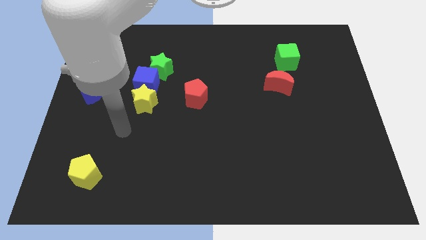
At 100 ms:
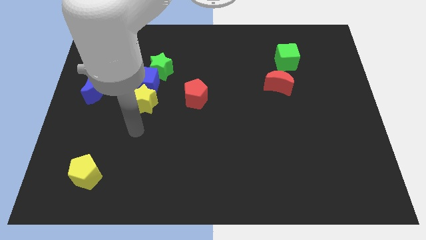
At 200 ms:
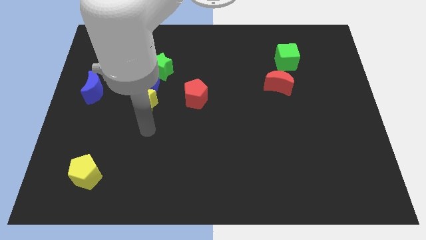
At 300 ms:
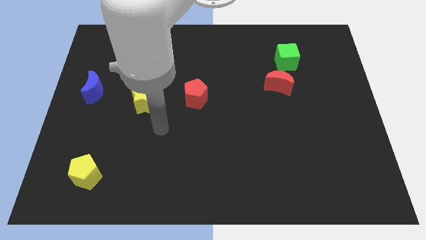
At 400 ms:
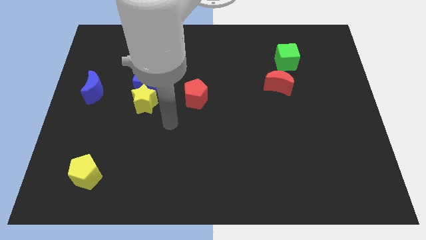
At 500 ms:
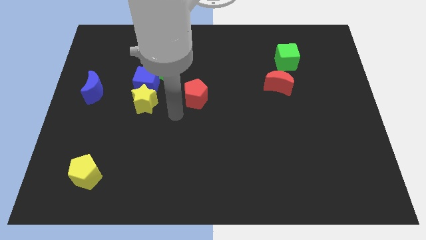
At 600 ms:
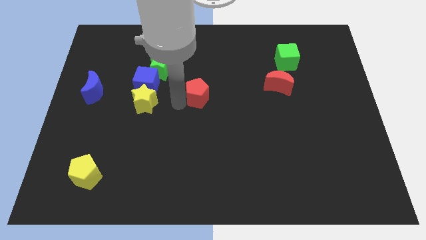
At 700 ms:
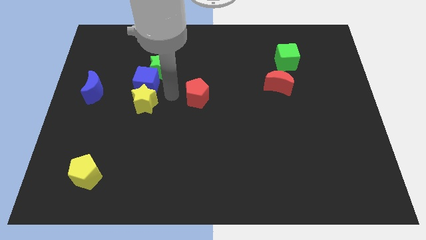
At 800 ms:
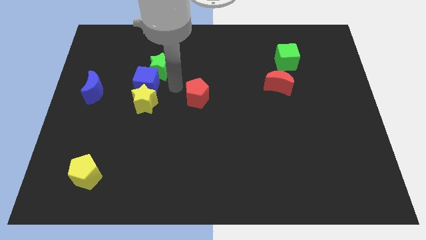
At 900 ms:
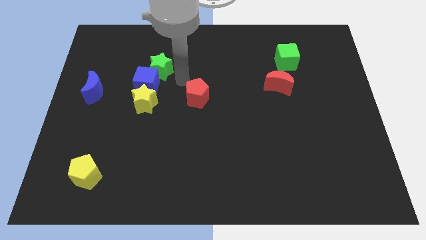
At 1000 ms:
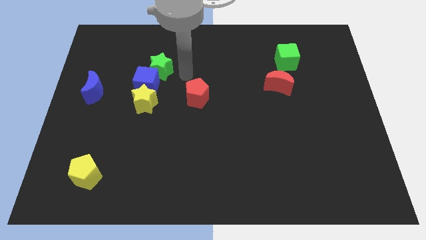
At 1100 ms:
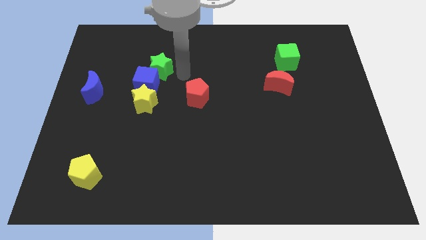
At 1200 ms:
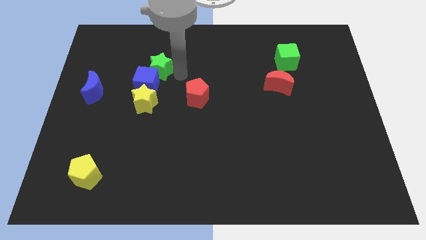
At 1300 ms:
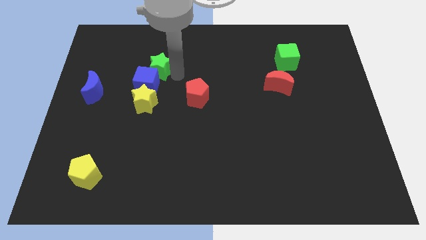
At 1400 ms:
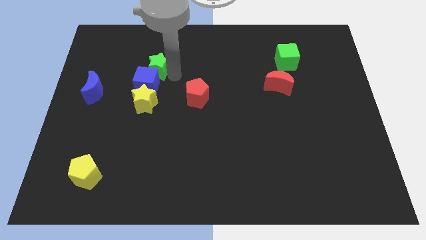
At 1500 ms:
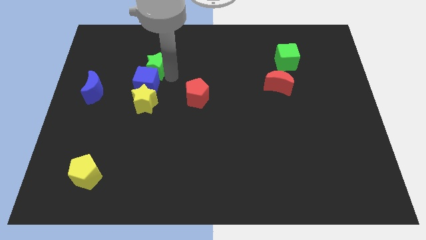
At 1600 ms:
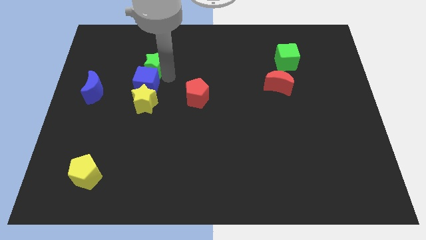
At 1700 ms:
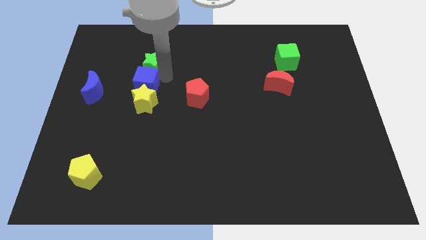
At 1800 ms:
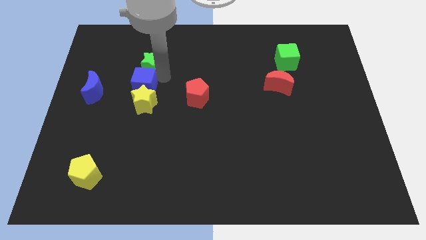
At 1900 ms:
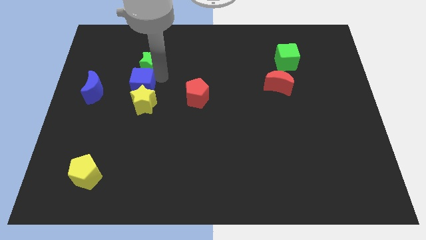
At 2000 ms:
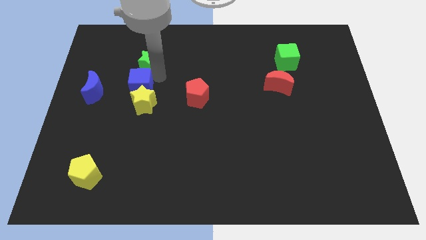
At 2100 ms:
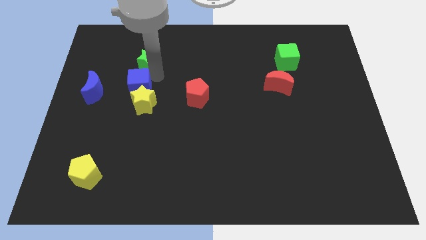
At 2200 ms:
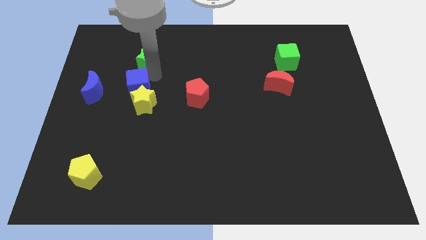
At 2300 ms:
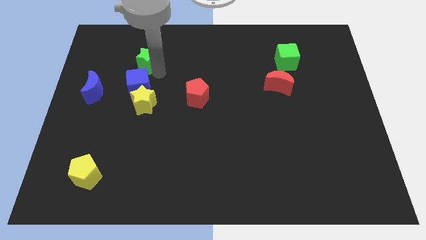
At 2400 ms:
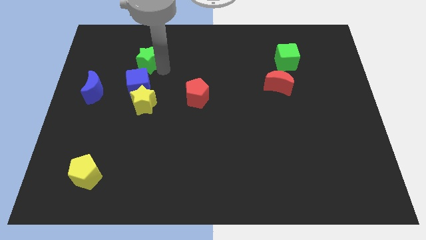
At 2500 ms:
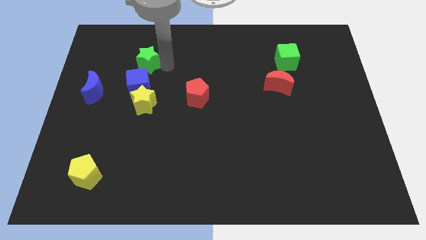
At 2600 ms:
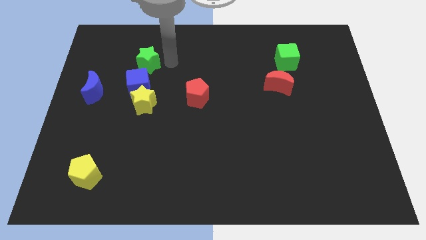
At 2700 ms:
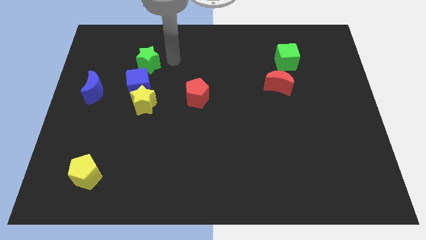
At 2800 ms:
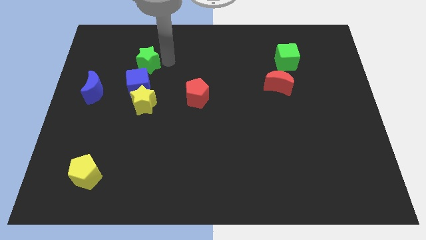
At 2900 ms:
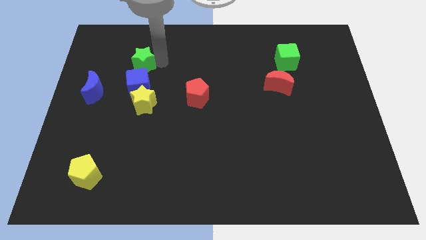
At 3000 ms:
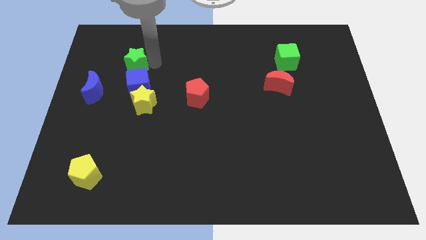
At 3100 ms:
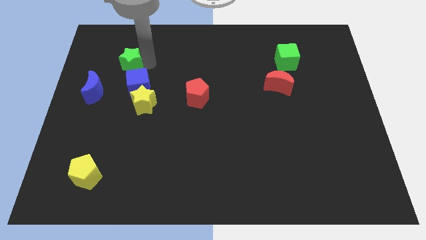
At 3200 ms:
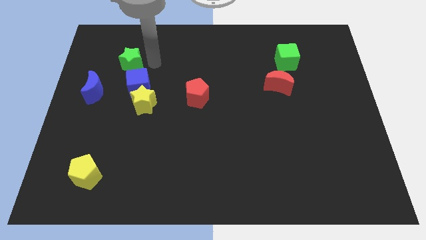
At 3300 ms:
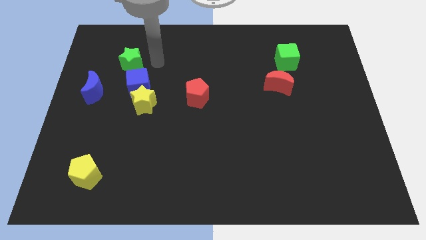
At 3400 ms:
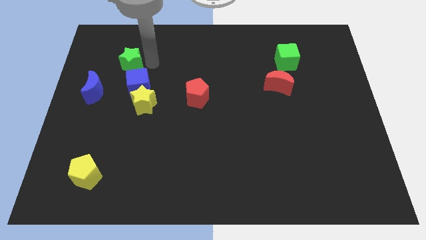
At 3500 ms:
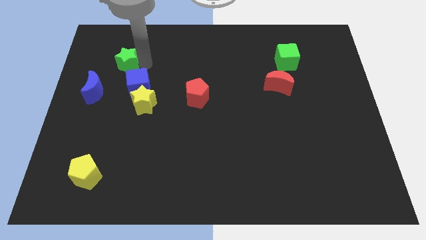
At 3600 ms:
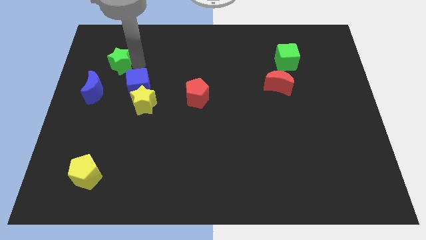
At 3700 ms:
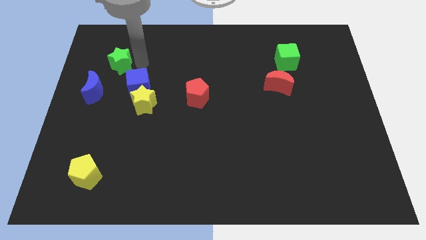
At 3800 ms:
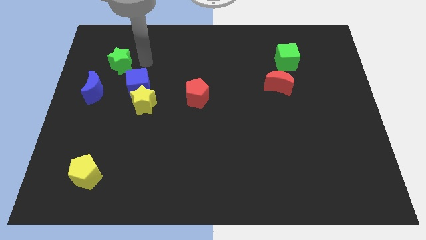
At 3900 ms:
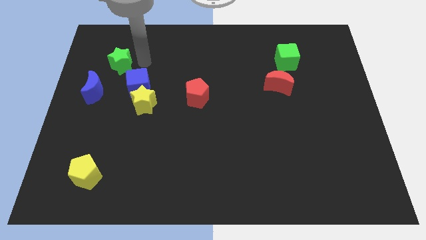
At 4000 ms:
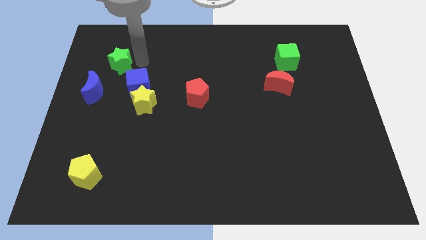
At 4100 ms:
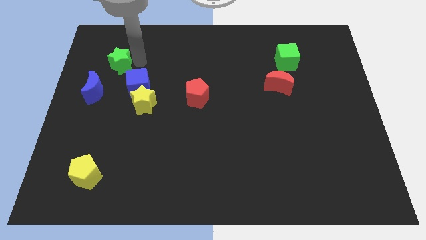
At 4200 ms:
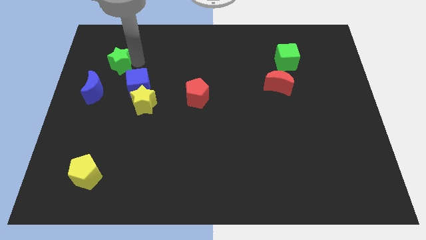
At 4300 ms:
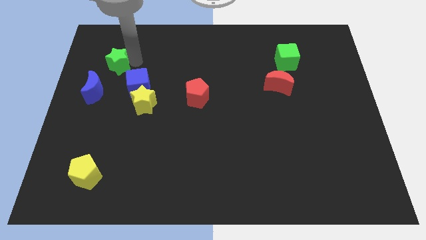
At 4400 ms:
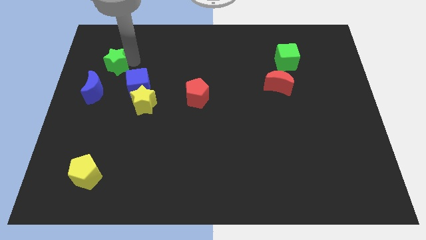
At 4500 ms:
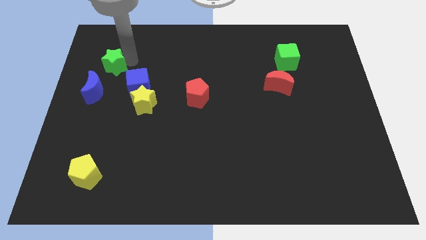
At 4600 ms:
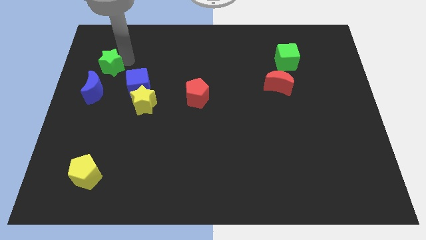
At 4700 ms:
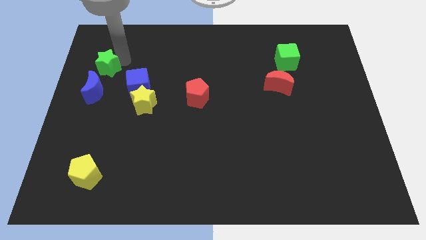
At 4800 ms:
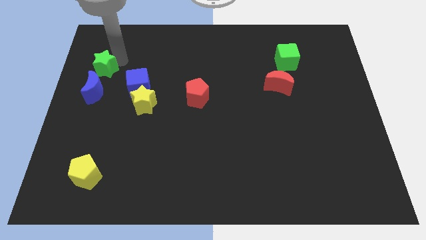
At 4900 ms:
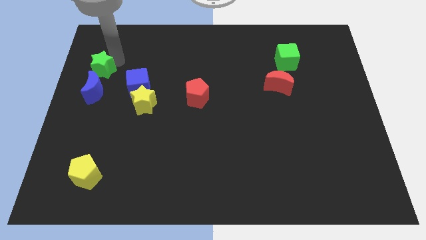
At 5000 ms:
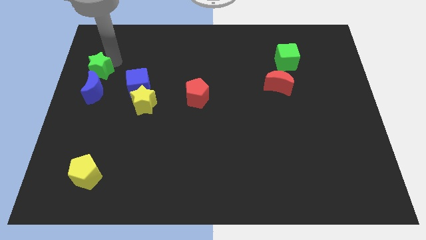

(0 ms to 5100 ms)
push the green star to the center left

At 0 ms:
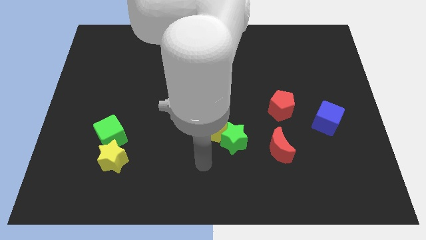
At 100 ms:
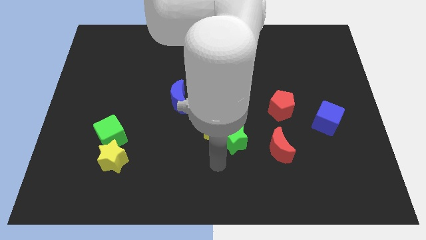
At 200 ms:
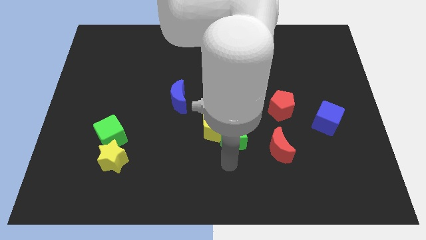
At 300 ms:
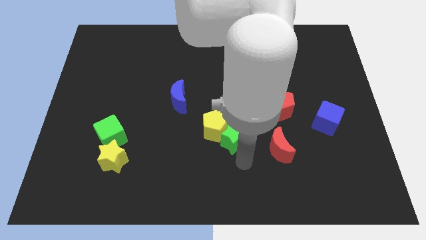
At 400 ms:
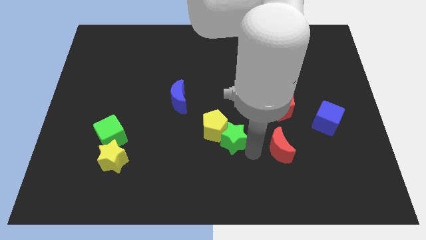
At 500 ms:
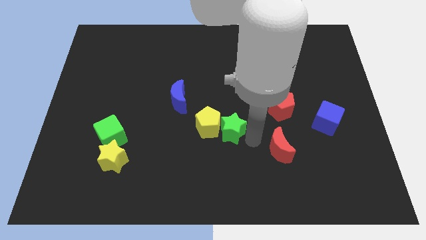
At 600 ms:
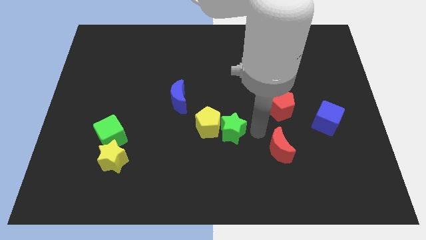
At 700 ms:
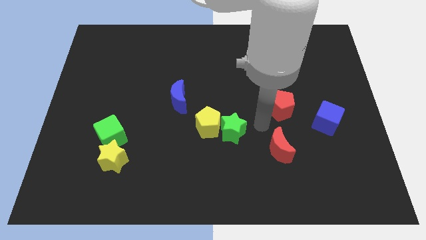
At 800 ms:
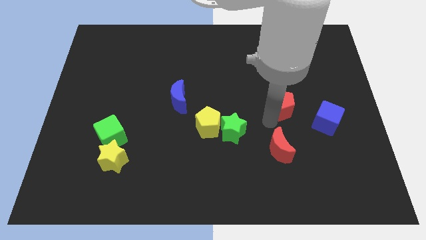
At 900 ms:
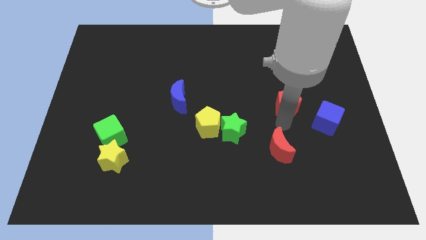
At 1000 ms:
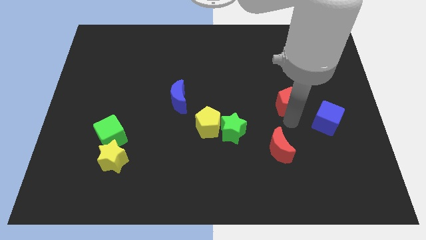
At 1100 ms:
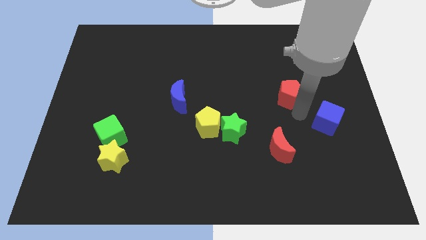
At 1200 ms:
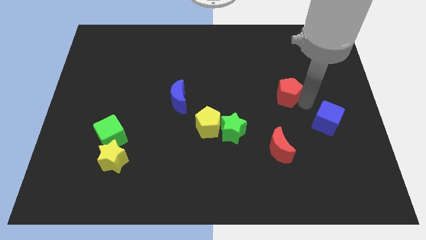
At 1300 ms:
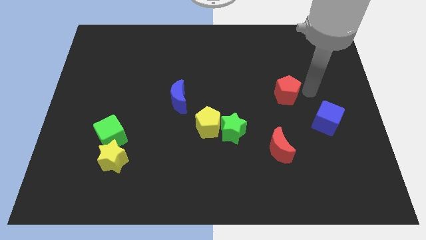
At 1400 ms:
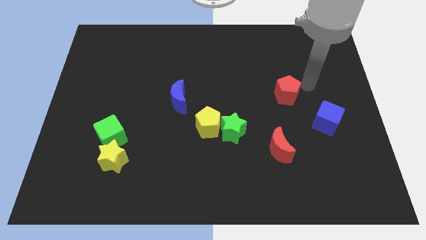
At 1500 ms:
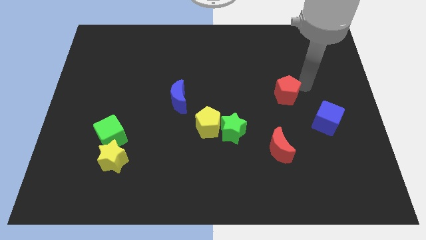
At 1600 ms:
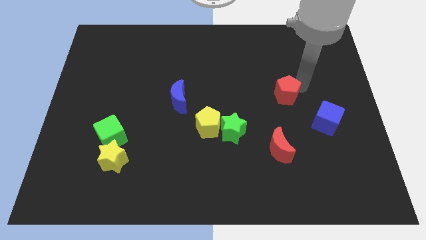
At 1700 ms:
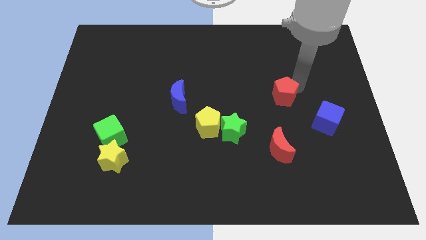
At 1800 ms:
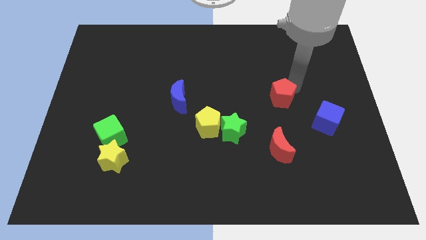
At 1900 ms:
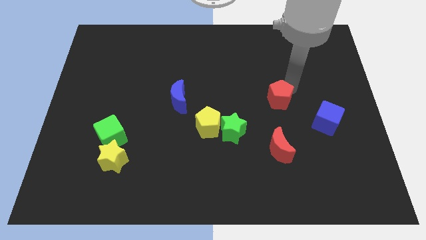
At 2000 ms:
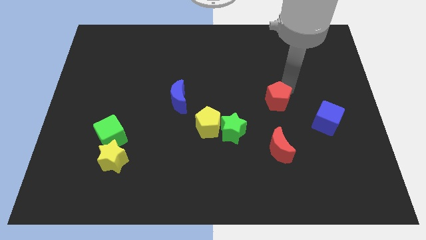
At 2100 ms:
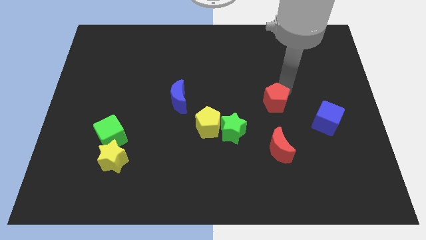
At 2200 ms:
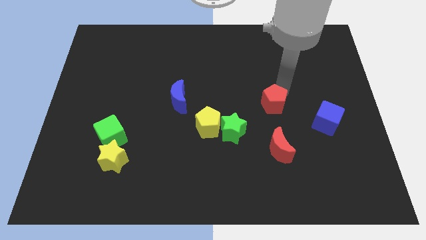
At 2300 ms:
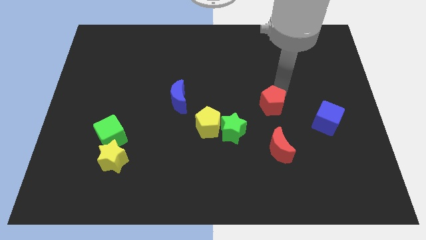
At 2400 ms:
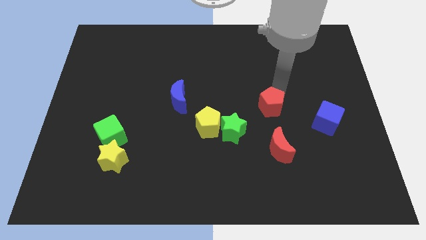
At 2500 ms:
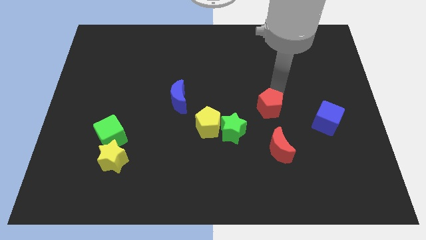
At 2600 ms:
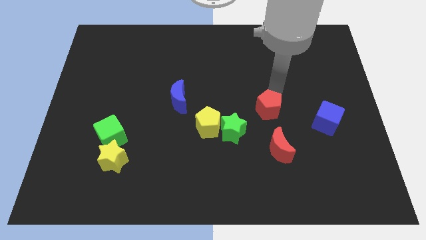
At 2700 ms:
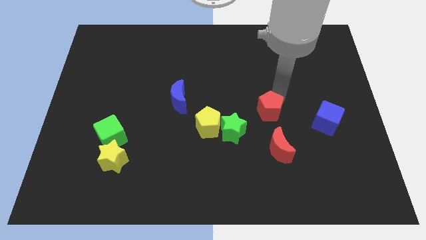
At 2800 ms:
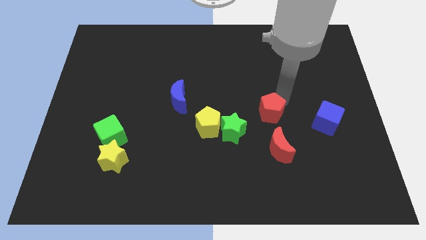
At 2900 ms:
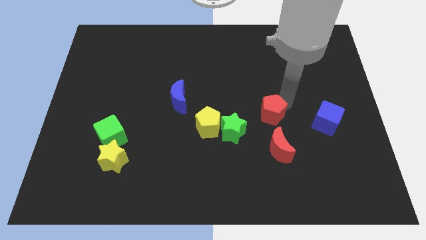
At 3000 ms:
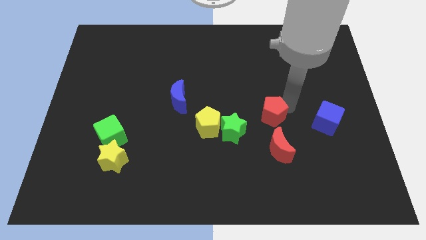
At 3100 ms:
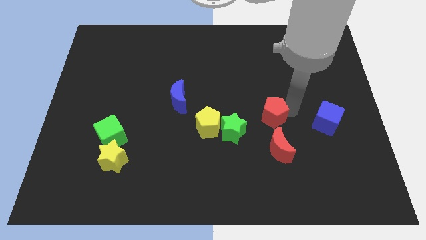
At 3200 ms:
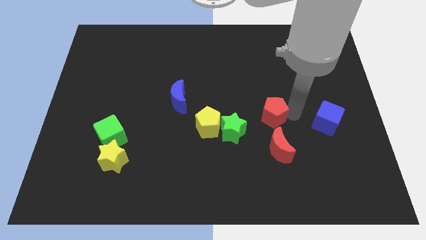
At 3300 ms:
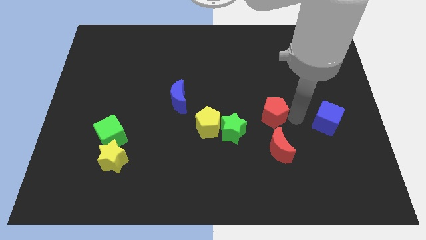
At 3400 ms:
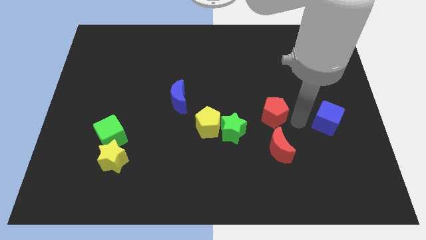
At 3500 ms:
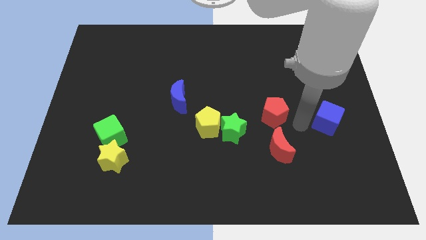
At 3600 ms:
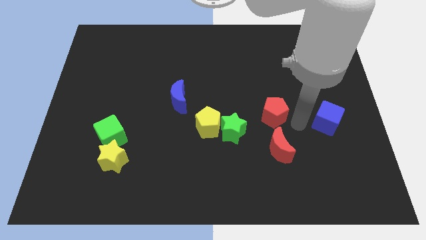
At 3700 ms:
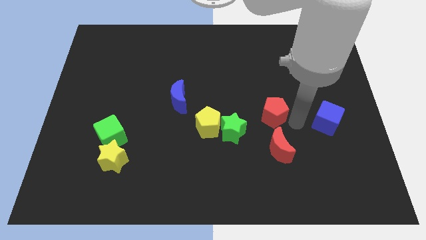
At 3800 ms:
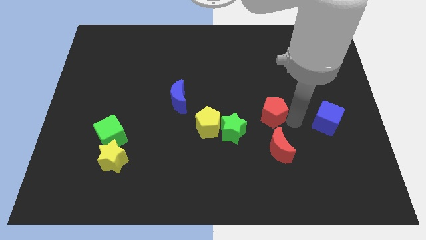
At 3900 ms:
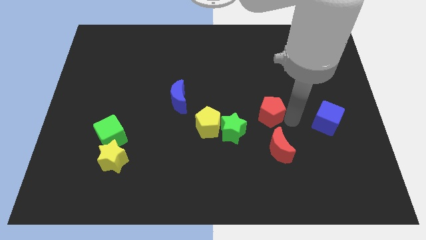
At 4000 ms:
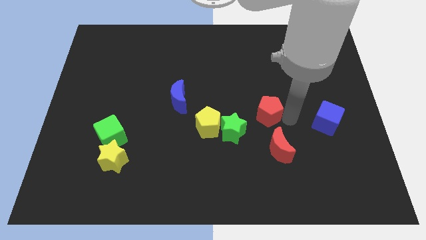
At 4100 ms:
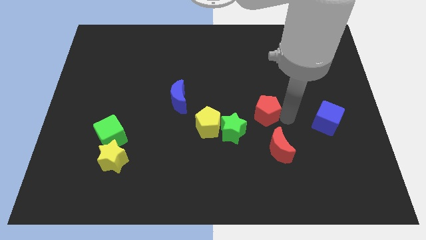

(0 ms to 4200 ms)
move the red pentagon to the center
